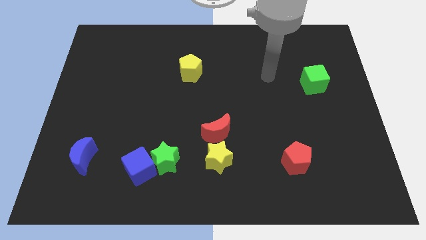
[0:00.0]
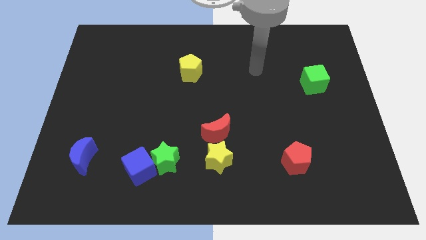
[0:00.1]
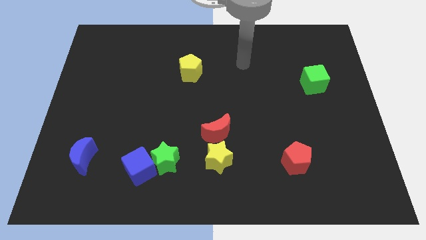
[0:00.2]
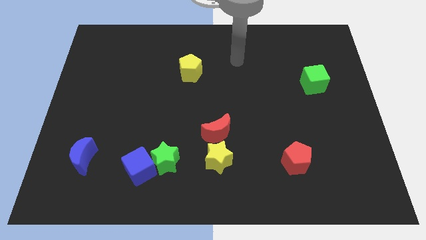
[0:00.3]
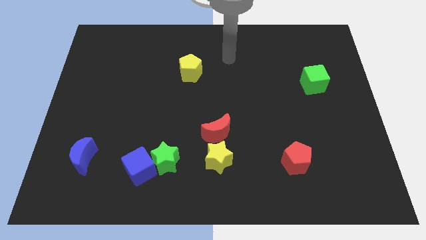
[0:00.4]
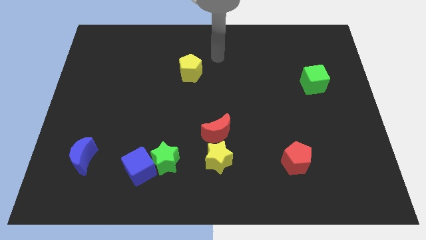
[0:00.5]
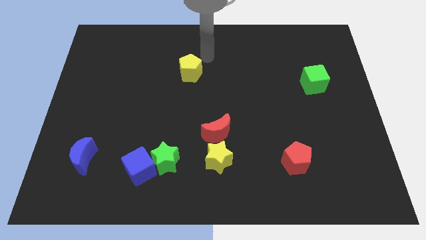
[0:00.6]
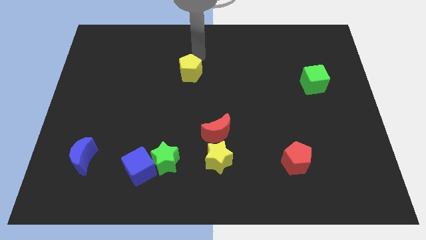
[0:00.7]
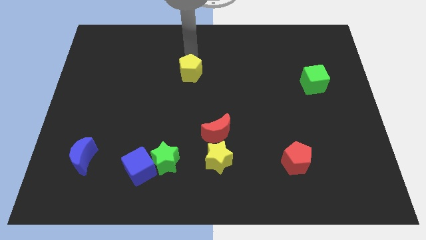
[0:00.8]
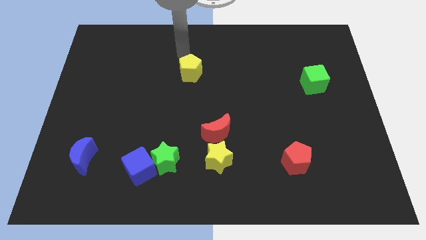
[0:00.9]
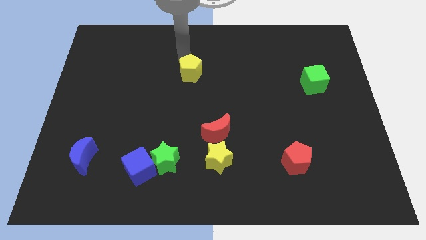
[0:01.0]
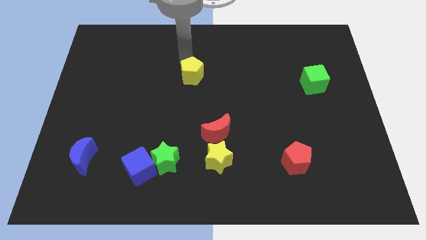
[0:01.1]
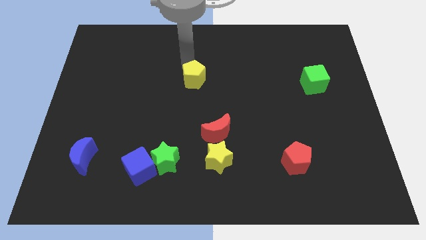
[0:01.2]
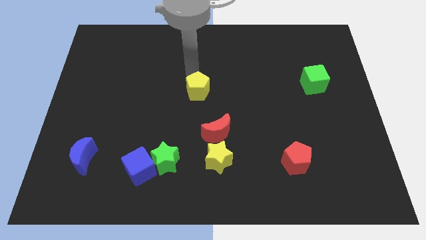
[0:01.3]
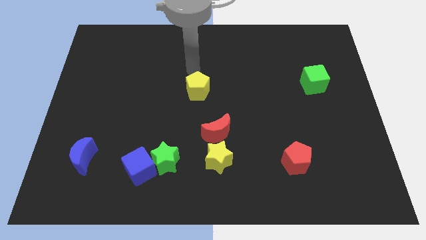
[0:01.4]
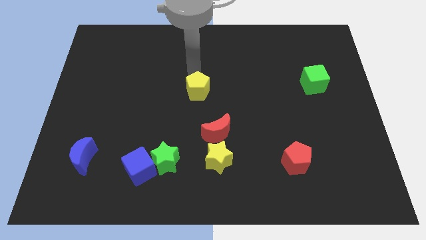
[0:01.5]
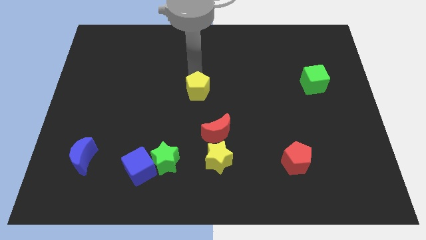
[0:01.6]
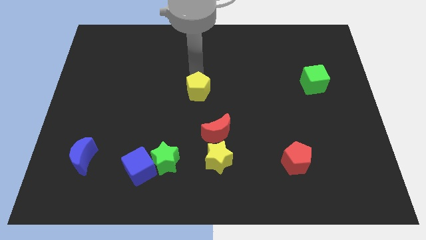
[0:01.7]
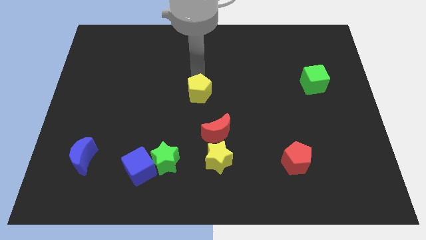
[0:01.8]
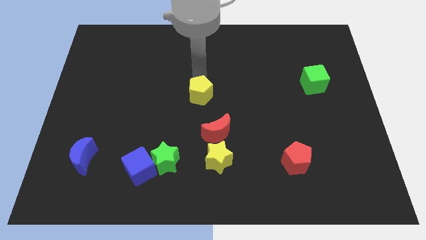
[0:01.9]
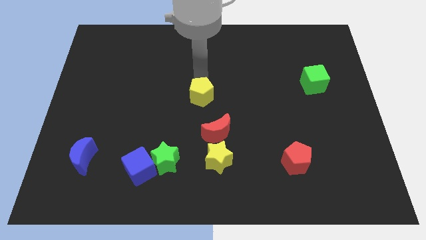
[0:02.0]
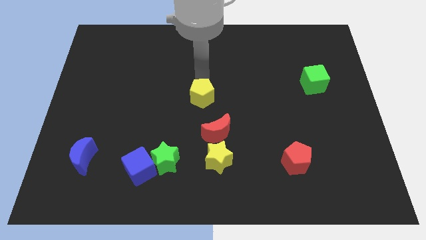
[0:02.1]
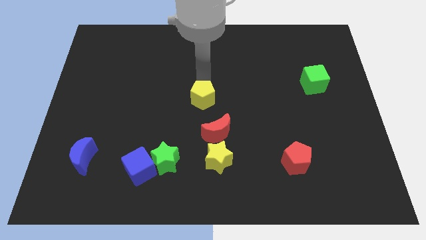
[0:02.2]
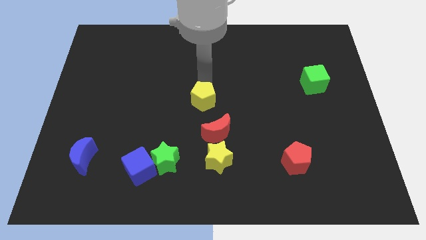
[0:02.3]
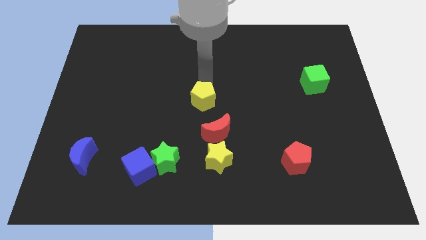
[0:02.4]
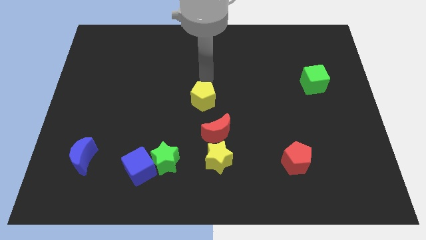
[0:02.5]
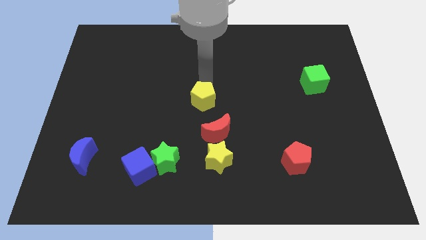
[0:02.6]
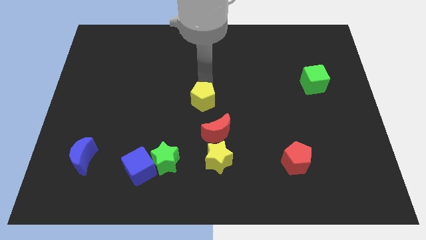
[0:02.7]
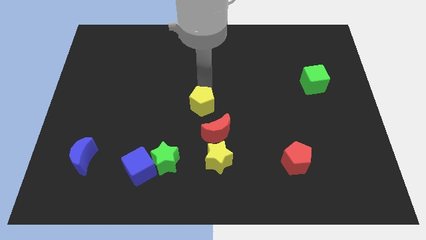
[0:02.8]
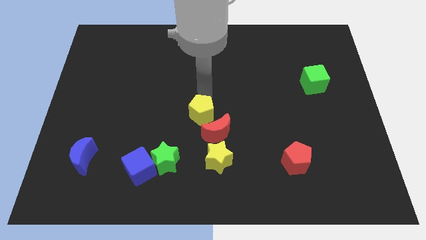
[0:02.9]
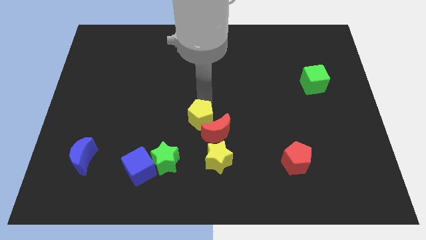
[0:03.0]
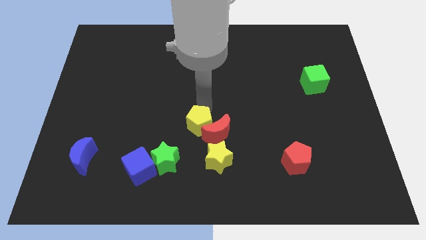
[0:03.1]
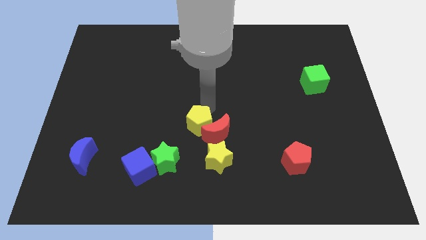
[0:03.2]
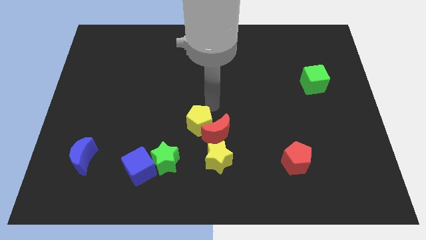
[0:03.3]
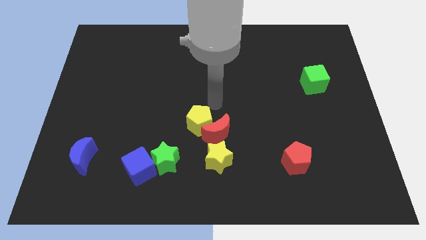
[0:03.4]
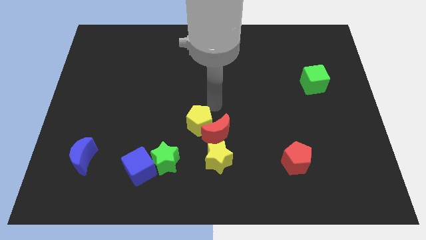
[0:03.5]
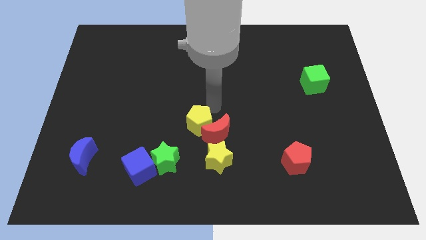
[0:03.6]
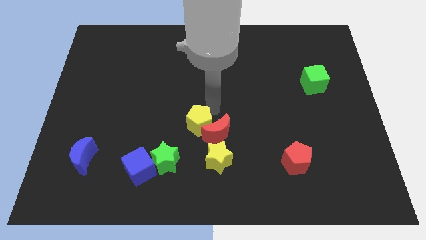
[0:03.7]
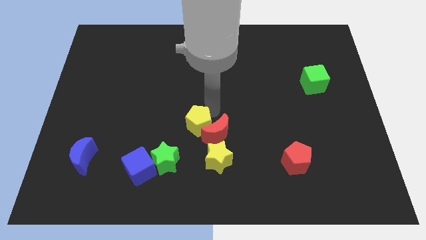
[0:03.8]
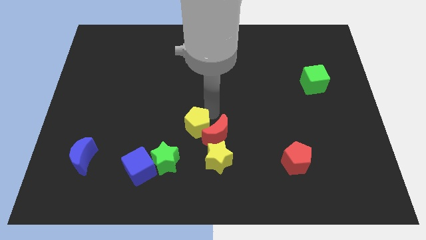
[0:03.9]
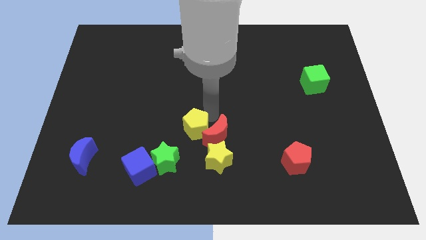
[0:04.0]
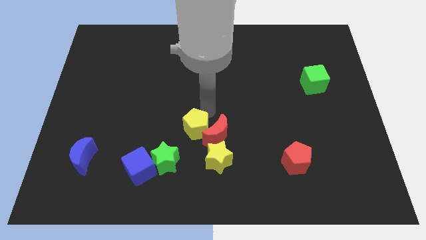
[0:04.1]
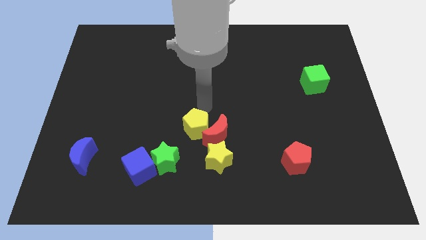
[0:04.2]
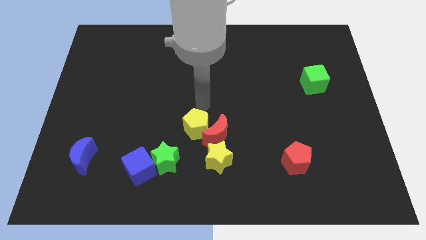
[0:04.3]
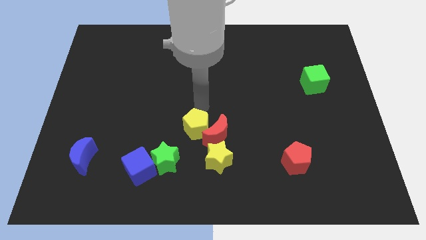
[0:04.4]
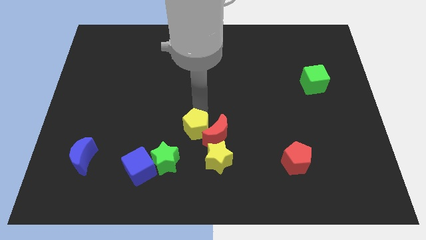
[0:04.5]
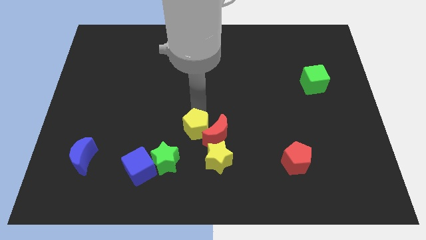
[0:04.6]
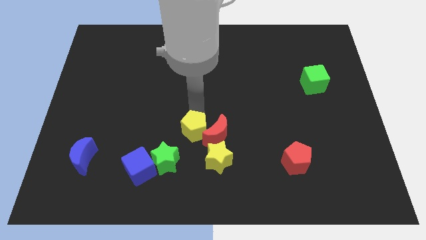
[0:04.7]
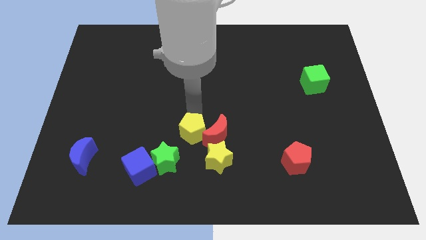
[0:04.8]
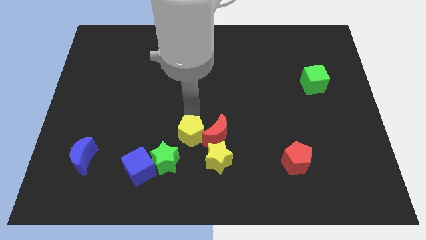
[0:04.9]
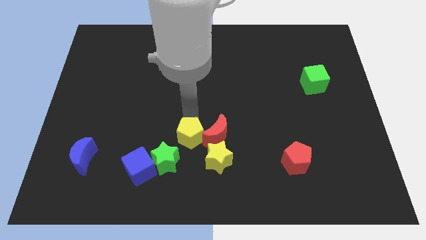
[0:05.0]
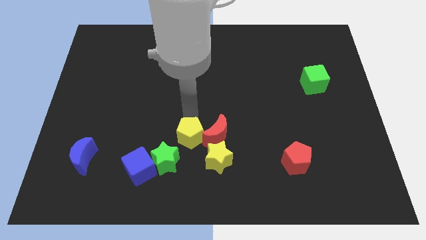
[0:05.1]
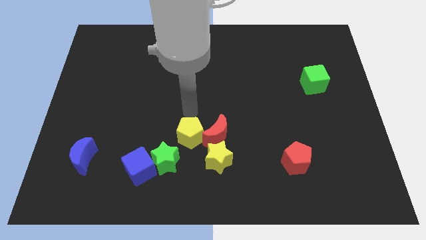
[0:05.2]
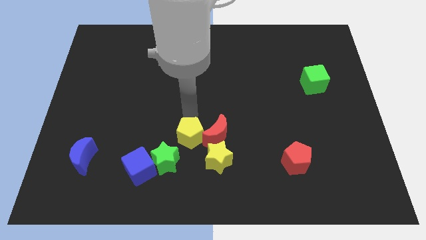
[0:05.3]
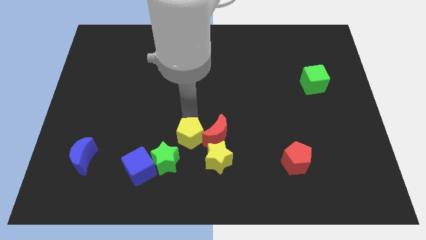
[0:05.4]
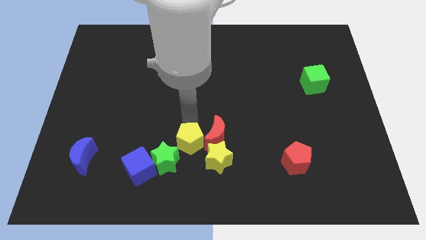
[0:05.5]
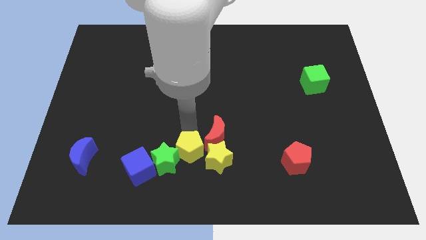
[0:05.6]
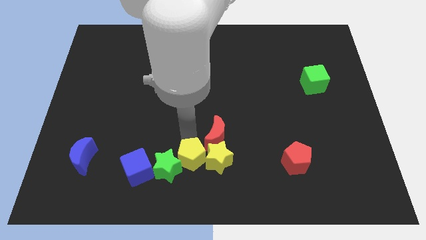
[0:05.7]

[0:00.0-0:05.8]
push the yellow pentagon to the bottom
